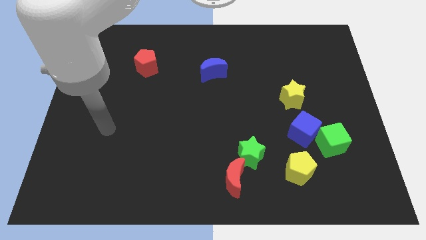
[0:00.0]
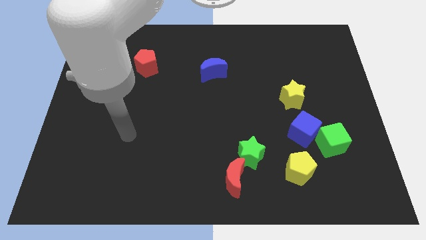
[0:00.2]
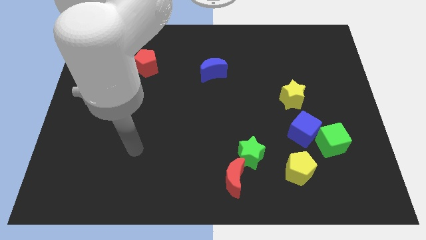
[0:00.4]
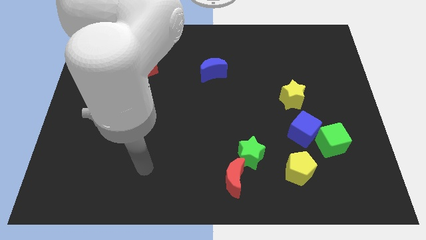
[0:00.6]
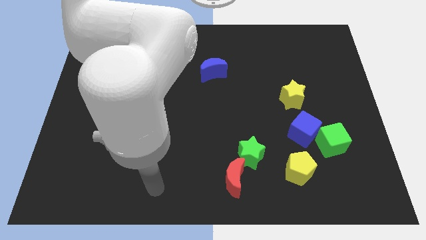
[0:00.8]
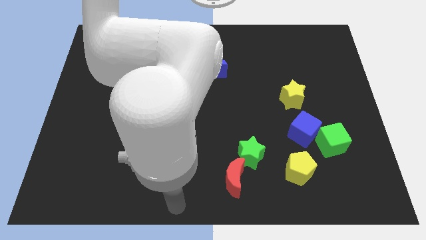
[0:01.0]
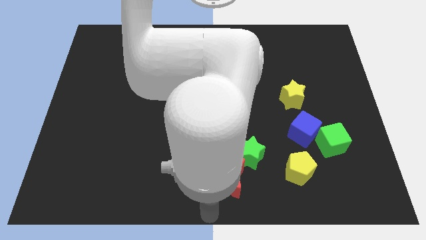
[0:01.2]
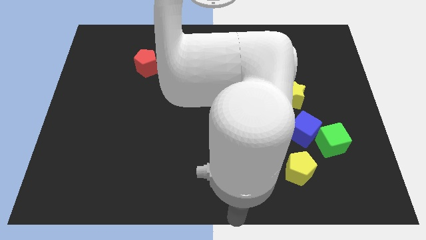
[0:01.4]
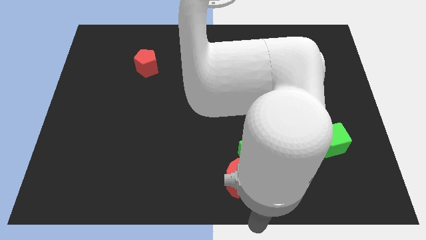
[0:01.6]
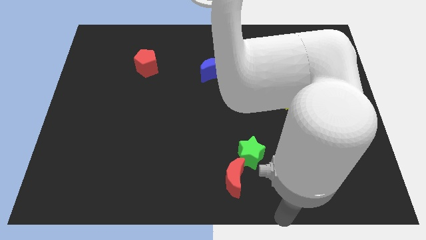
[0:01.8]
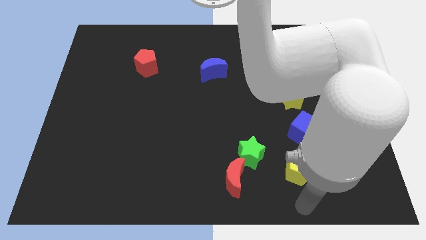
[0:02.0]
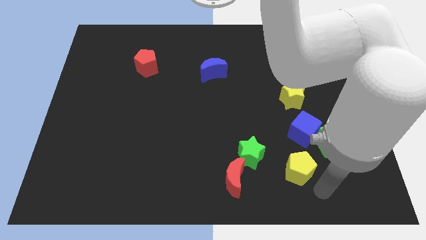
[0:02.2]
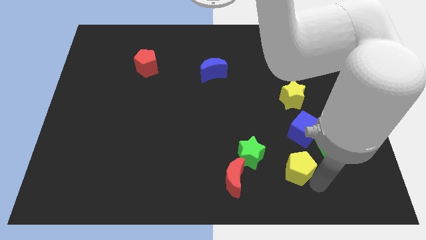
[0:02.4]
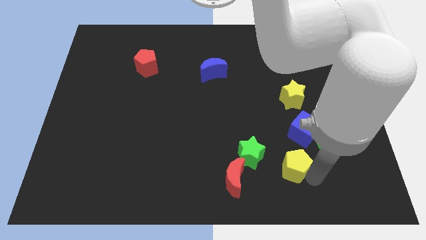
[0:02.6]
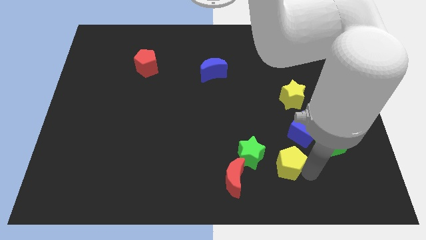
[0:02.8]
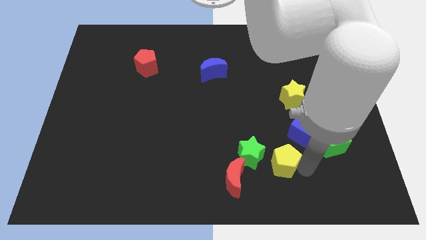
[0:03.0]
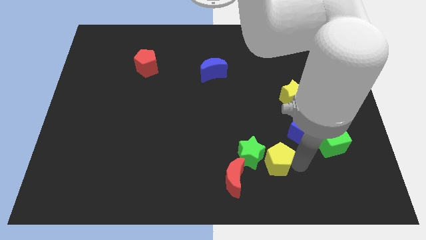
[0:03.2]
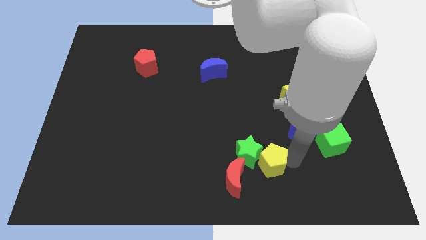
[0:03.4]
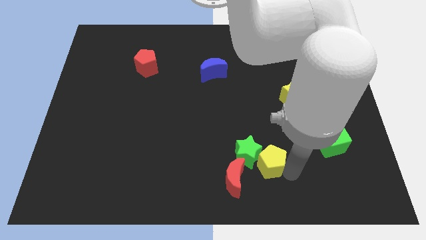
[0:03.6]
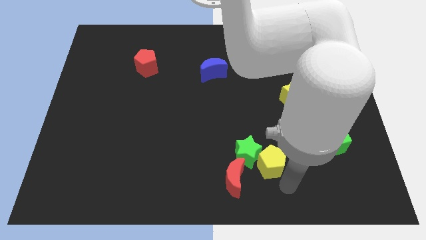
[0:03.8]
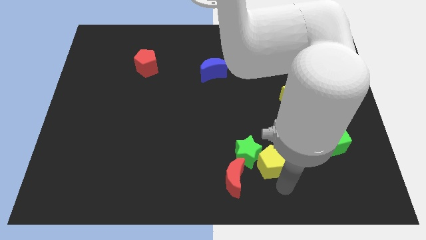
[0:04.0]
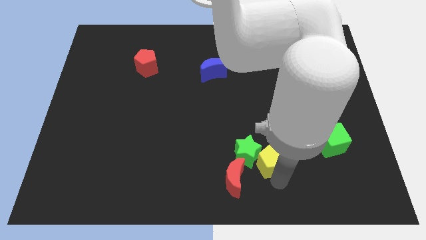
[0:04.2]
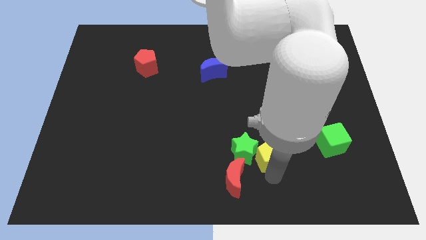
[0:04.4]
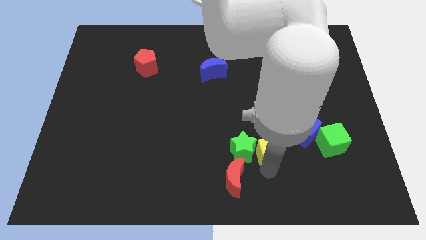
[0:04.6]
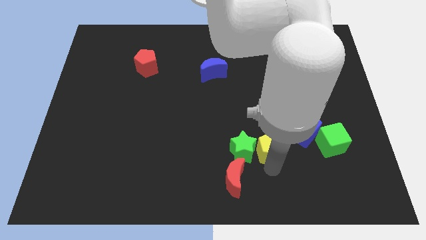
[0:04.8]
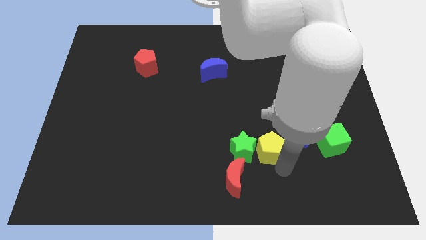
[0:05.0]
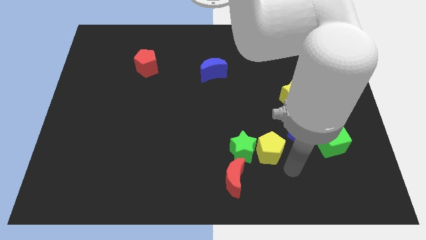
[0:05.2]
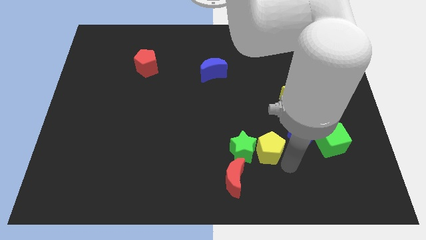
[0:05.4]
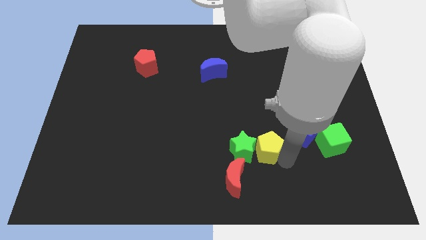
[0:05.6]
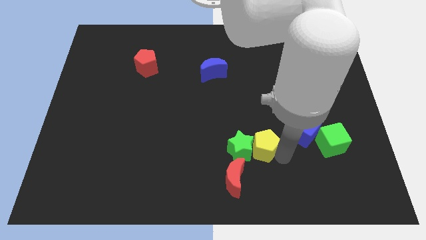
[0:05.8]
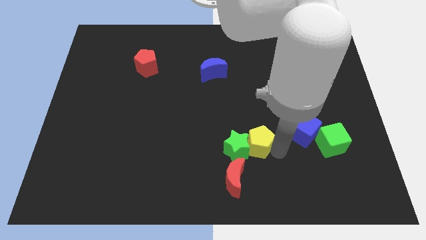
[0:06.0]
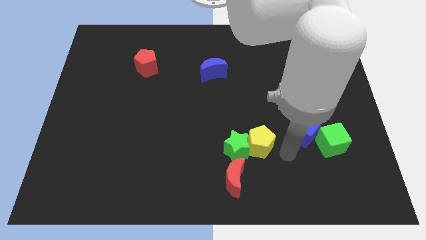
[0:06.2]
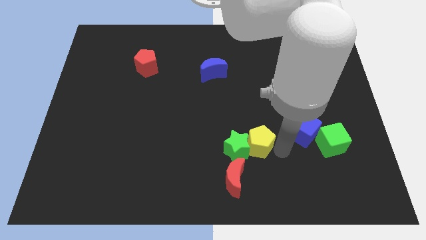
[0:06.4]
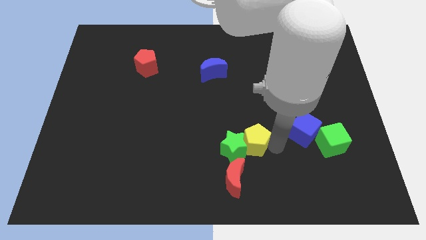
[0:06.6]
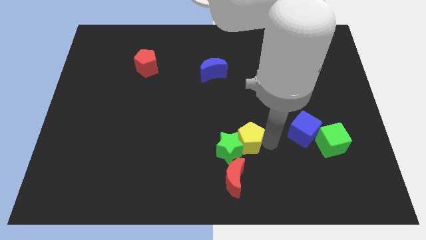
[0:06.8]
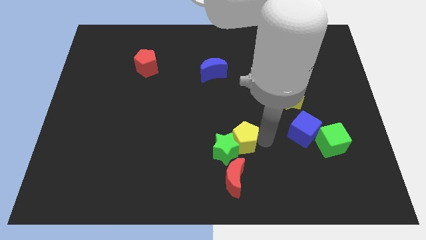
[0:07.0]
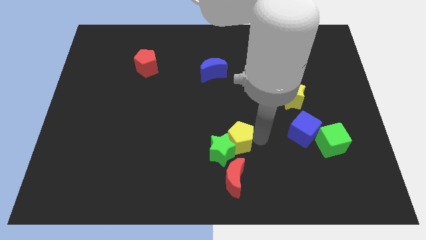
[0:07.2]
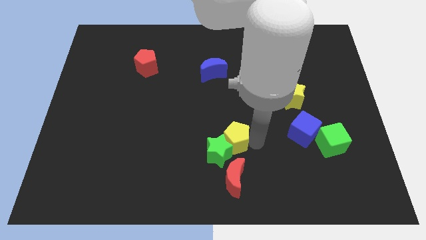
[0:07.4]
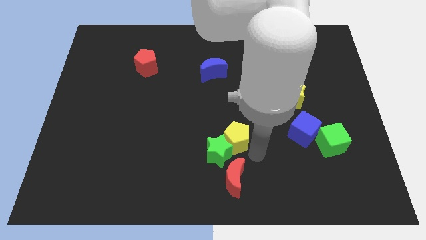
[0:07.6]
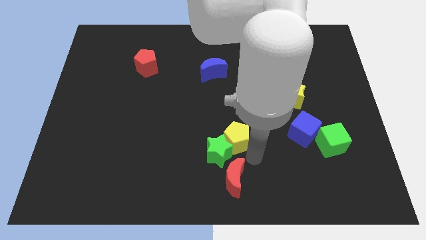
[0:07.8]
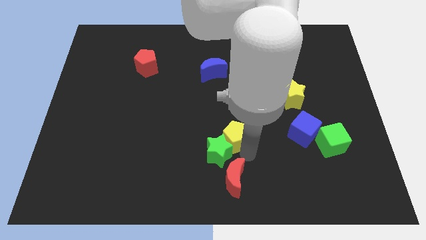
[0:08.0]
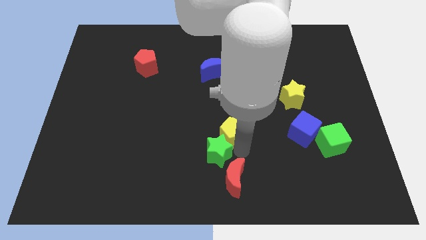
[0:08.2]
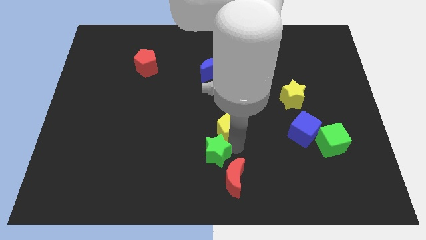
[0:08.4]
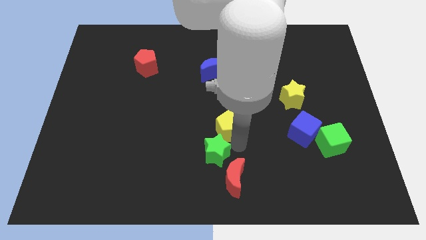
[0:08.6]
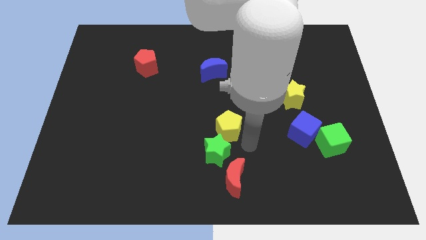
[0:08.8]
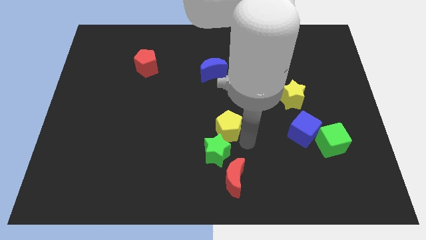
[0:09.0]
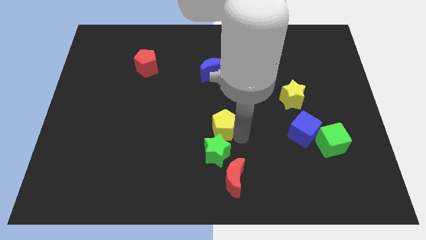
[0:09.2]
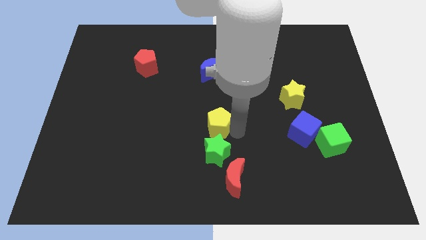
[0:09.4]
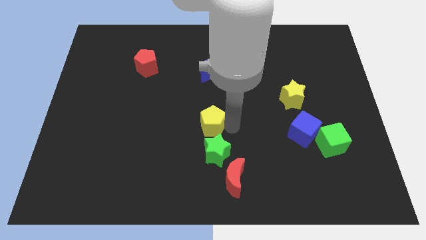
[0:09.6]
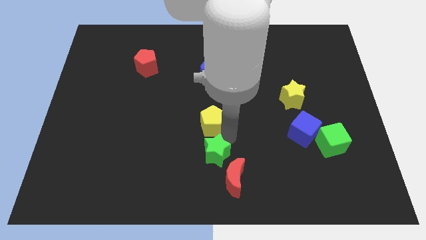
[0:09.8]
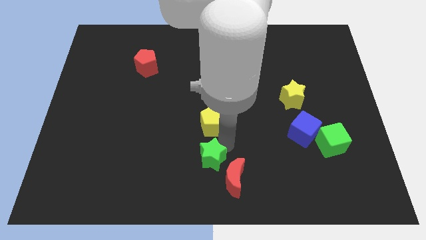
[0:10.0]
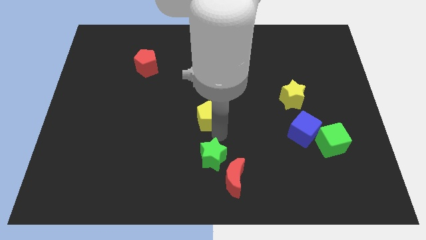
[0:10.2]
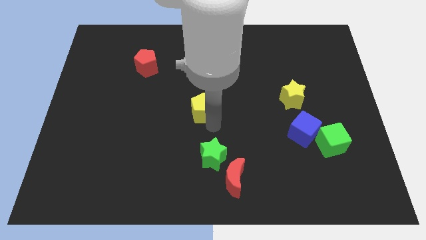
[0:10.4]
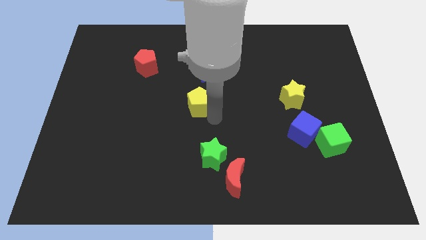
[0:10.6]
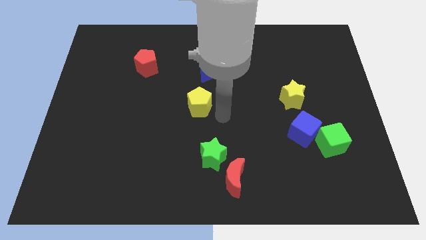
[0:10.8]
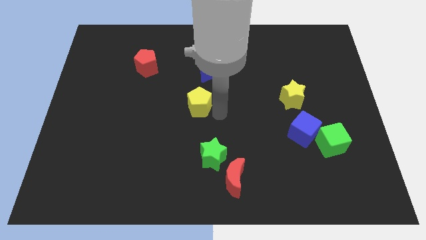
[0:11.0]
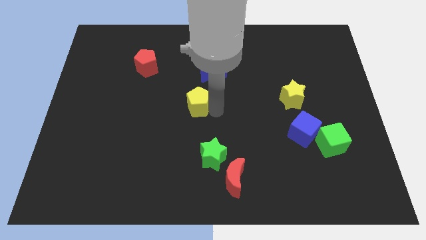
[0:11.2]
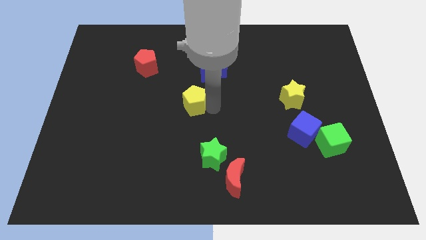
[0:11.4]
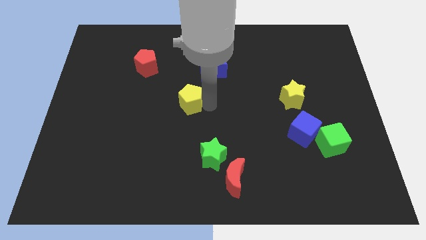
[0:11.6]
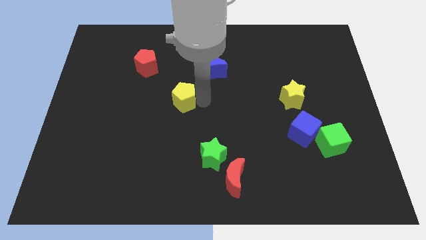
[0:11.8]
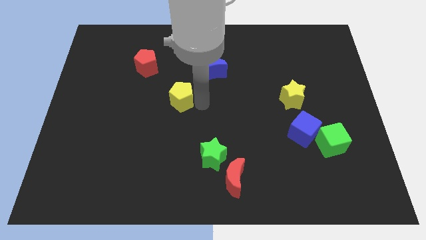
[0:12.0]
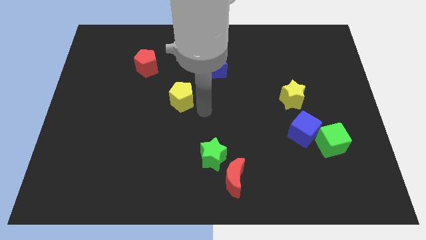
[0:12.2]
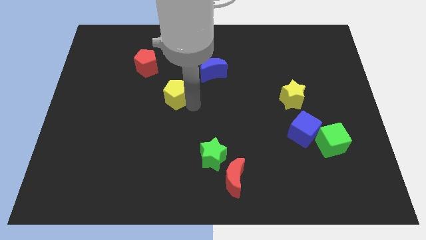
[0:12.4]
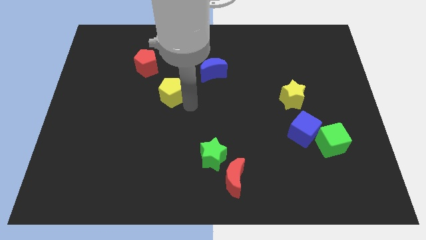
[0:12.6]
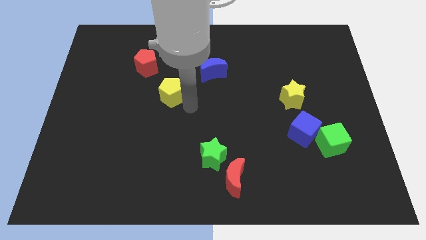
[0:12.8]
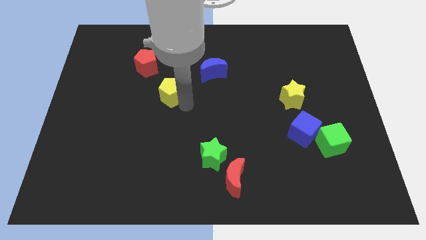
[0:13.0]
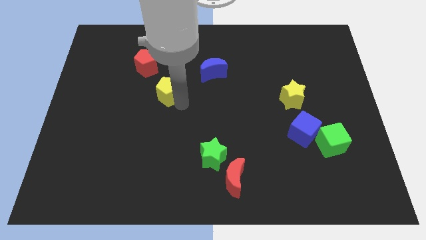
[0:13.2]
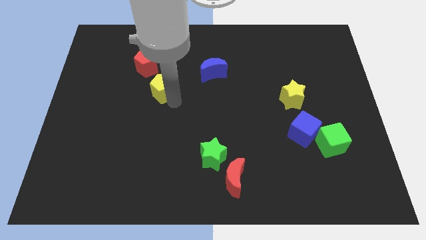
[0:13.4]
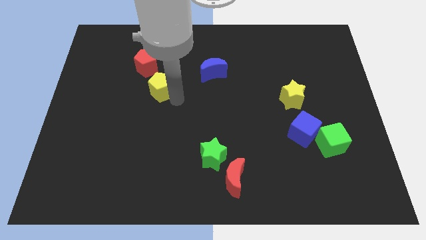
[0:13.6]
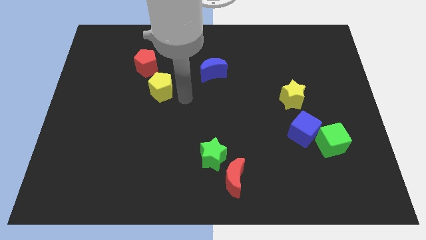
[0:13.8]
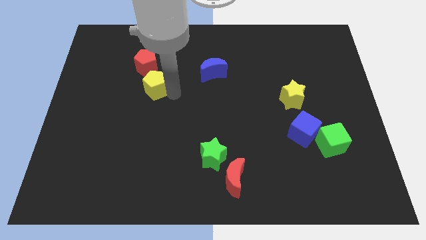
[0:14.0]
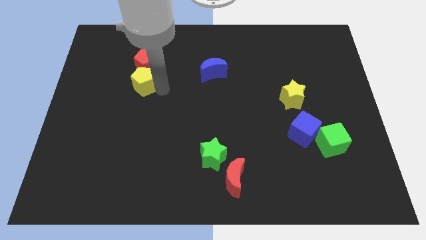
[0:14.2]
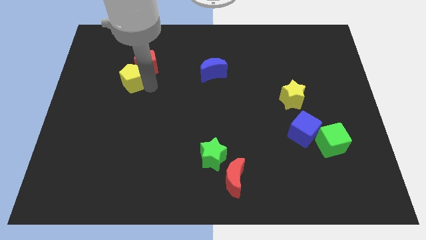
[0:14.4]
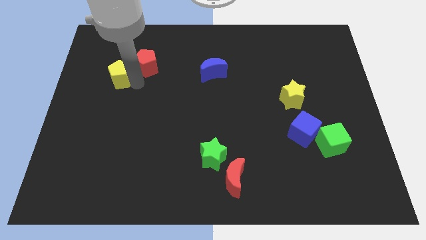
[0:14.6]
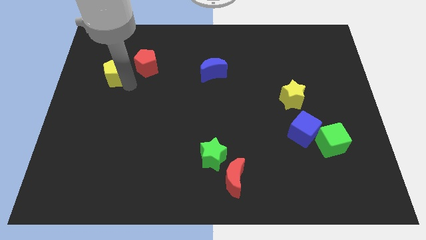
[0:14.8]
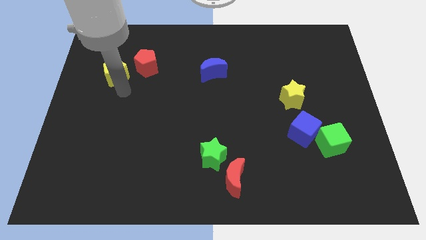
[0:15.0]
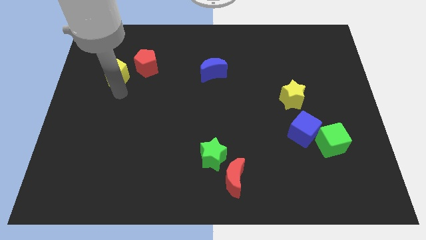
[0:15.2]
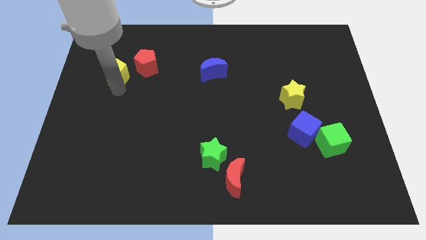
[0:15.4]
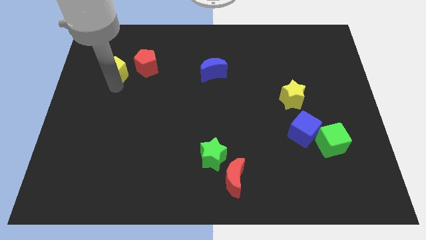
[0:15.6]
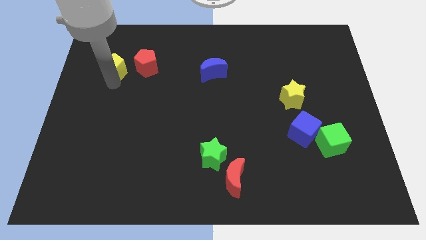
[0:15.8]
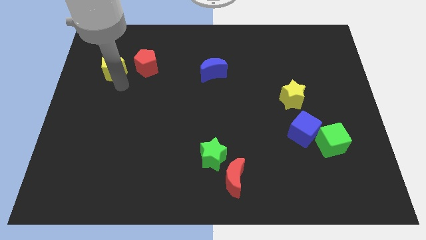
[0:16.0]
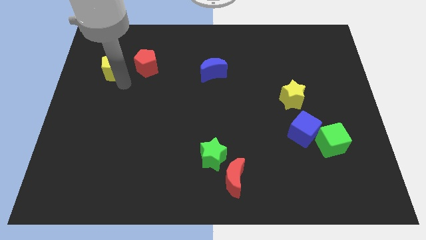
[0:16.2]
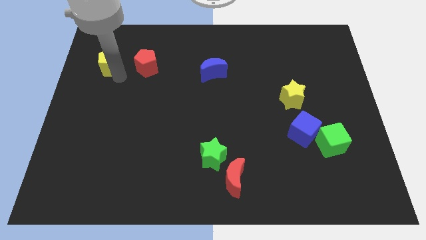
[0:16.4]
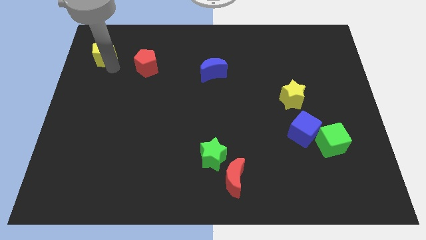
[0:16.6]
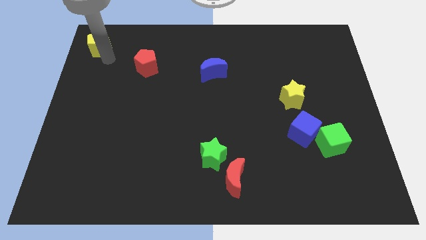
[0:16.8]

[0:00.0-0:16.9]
put the yellow pentagon to the top left
